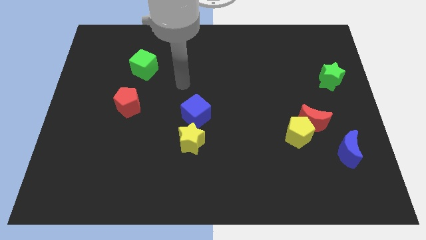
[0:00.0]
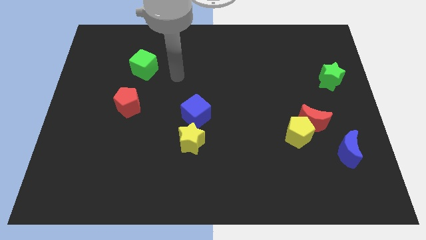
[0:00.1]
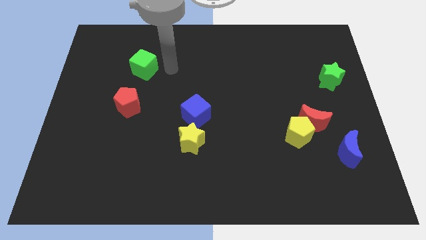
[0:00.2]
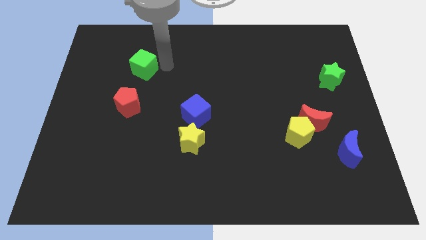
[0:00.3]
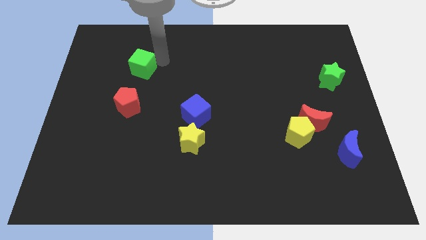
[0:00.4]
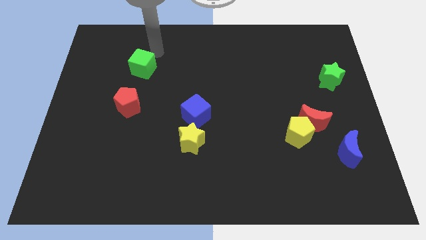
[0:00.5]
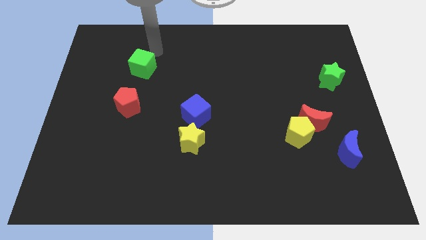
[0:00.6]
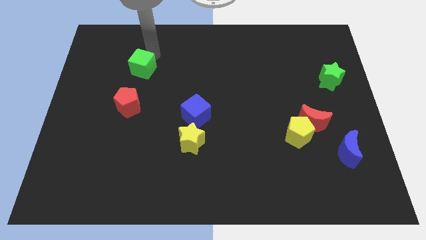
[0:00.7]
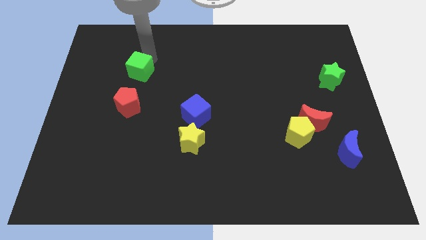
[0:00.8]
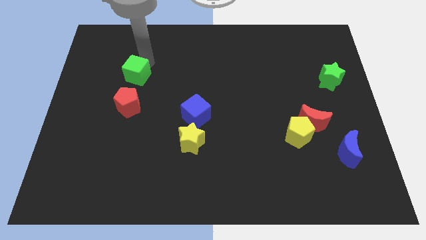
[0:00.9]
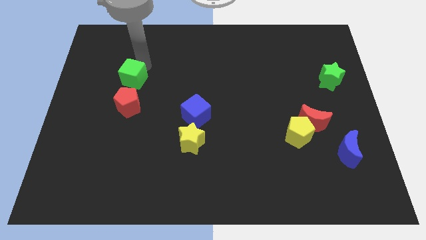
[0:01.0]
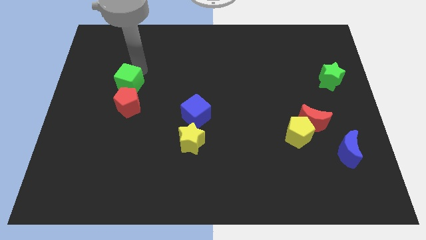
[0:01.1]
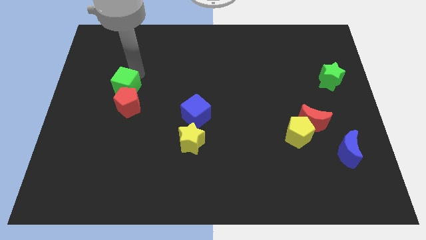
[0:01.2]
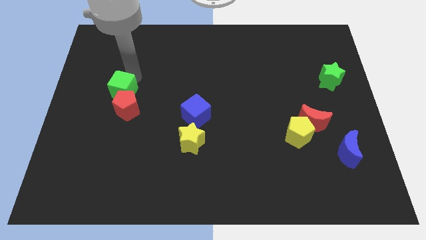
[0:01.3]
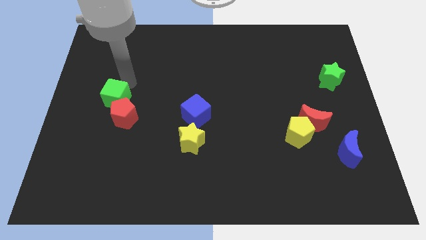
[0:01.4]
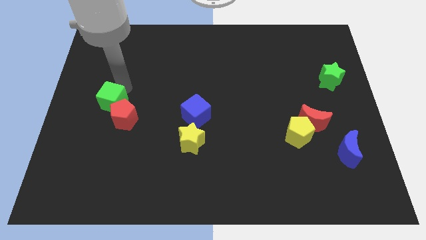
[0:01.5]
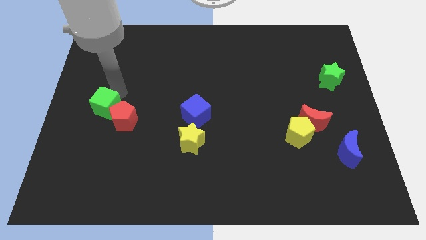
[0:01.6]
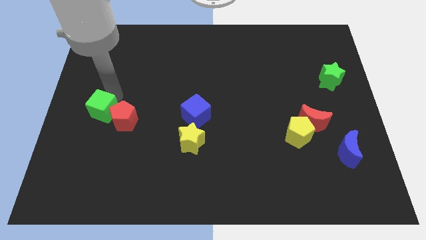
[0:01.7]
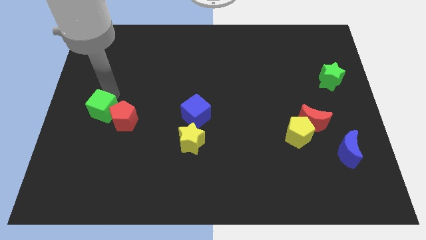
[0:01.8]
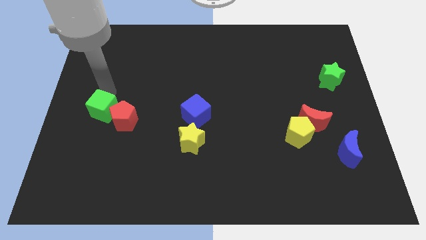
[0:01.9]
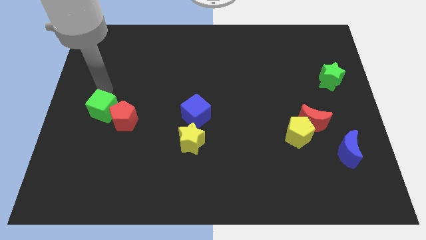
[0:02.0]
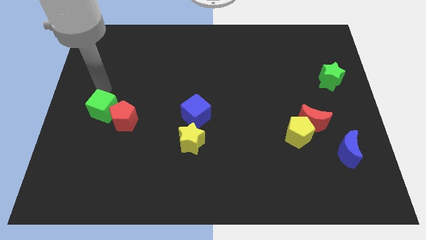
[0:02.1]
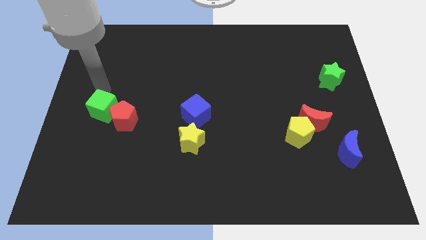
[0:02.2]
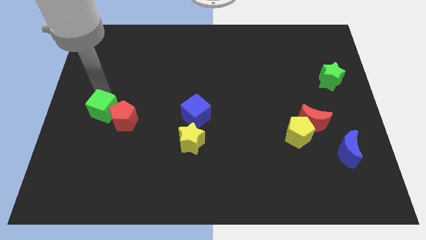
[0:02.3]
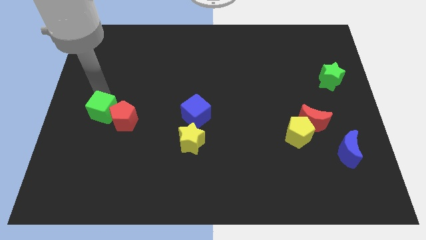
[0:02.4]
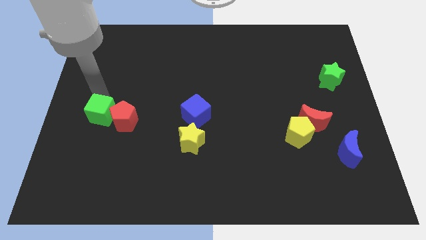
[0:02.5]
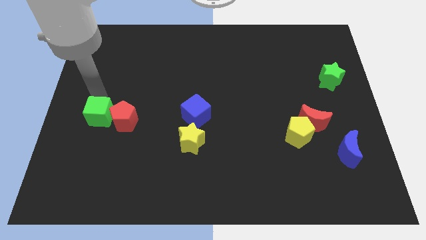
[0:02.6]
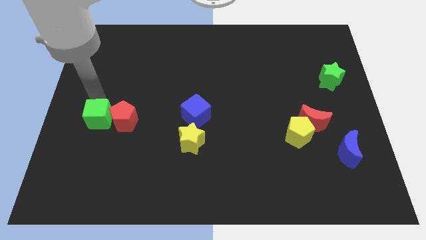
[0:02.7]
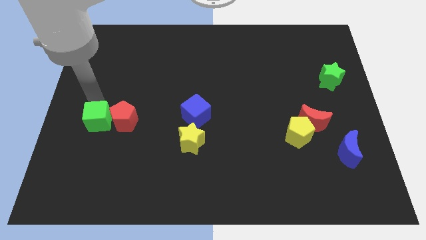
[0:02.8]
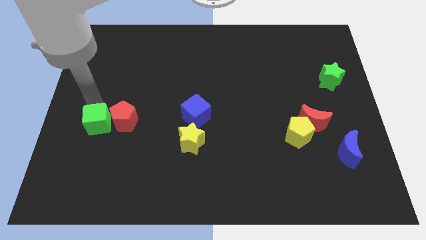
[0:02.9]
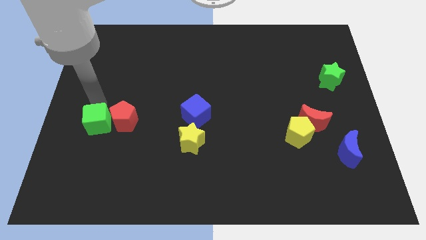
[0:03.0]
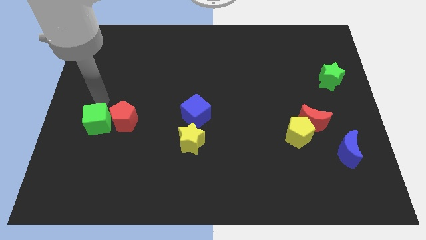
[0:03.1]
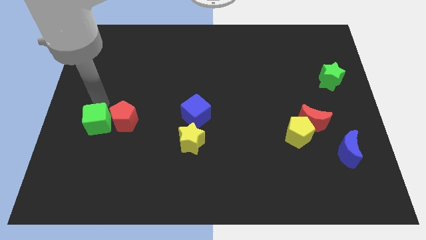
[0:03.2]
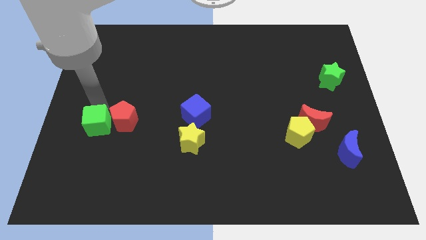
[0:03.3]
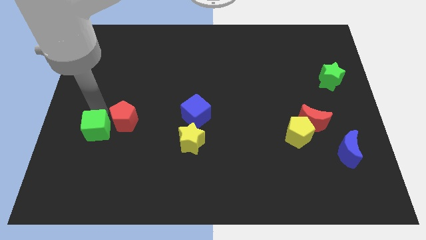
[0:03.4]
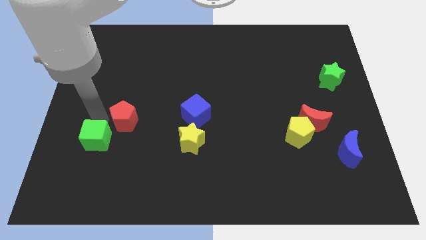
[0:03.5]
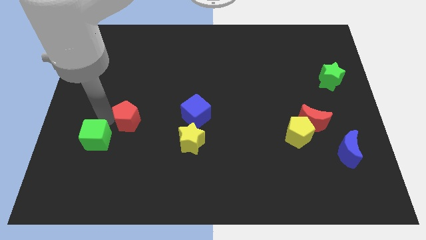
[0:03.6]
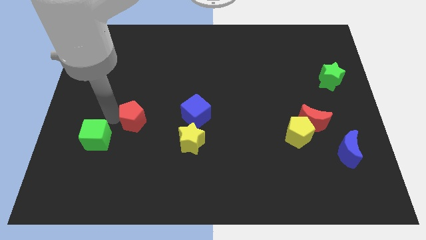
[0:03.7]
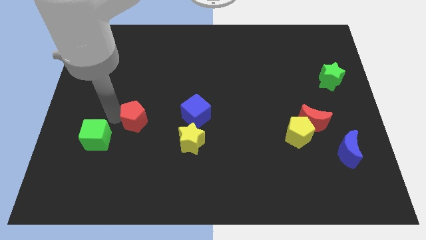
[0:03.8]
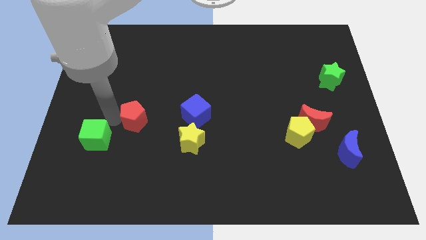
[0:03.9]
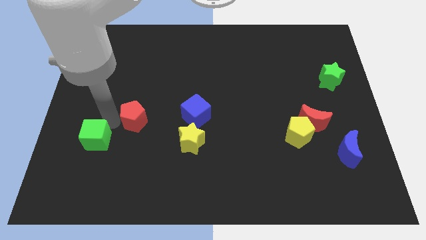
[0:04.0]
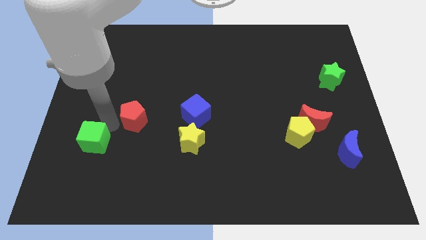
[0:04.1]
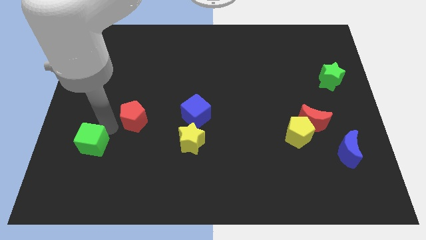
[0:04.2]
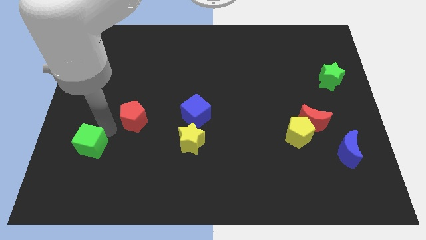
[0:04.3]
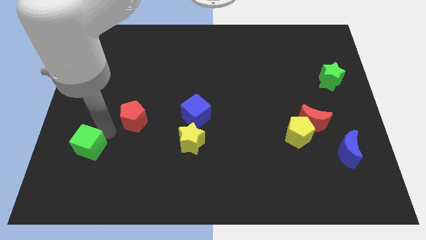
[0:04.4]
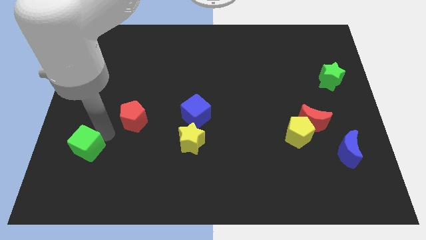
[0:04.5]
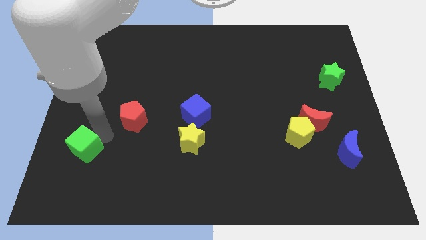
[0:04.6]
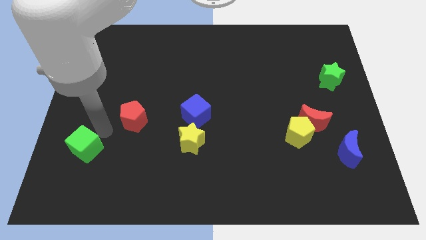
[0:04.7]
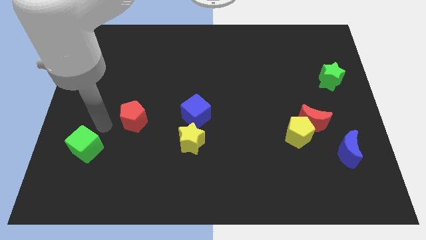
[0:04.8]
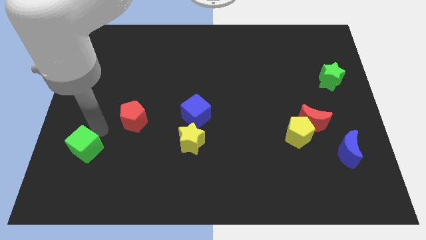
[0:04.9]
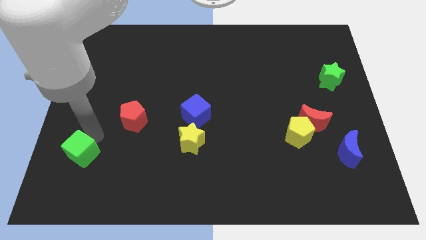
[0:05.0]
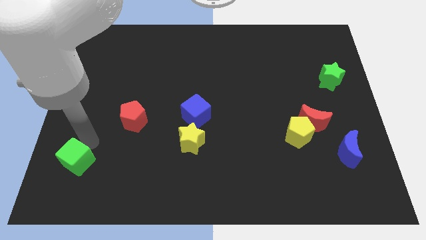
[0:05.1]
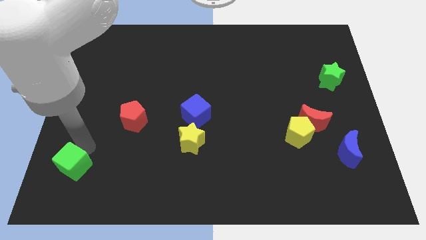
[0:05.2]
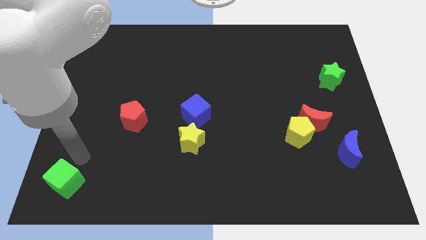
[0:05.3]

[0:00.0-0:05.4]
put the green cube to the bottom left corner
